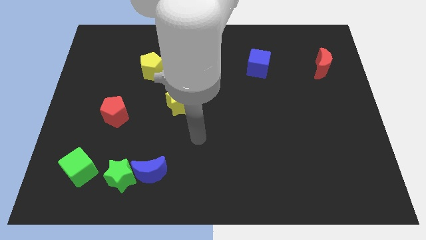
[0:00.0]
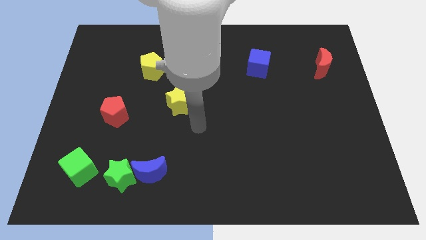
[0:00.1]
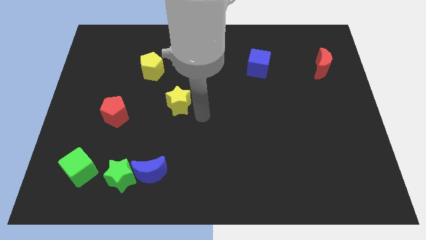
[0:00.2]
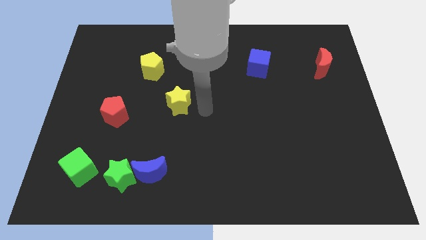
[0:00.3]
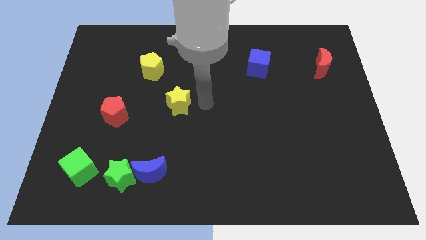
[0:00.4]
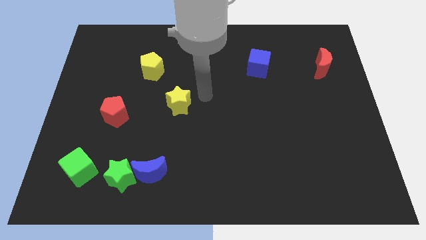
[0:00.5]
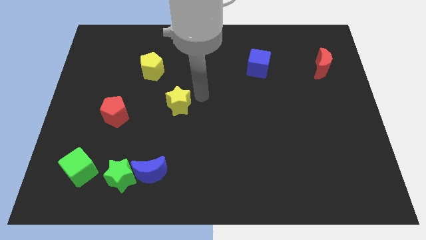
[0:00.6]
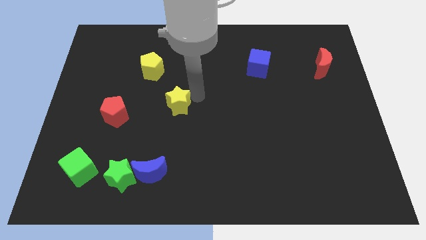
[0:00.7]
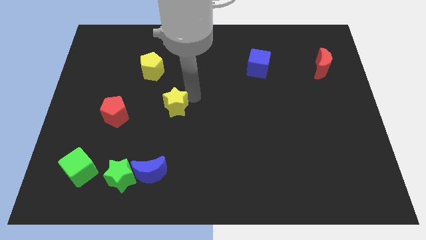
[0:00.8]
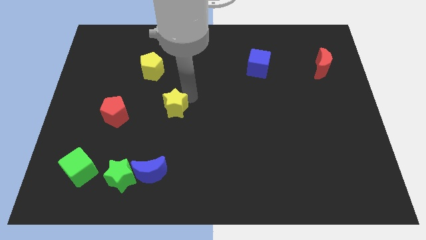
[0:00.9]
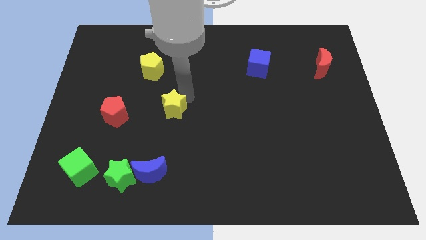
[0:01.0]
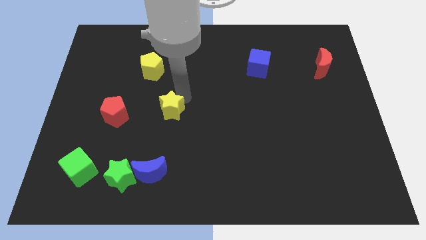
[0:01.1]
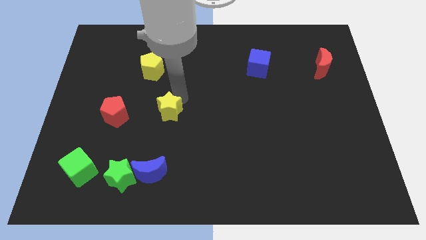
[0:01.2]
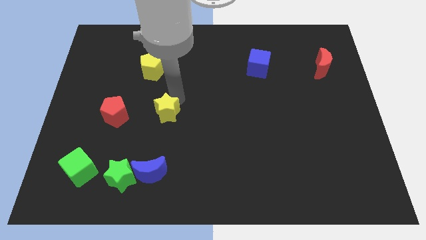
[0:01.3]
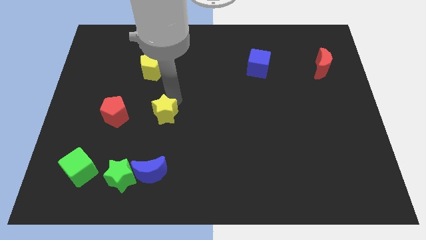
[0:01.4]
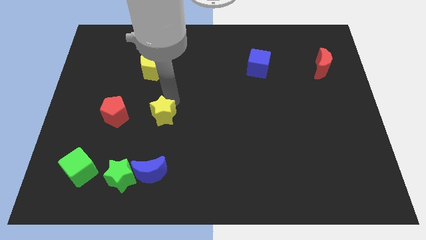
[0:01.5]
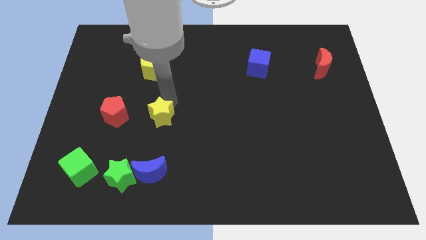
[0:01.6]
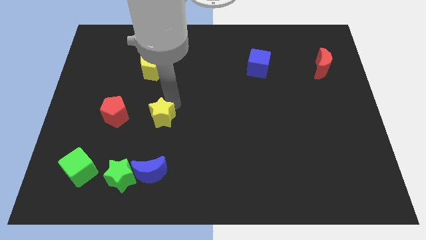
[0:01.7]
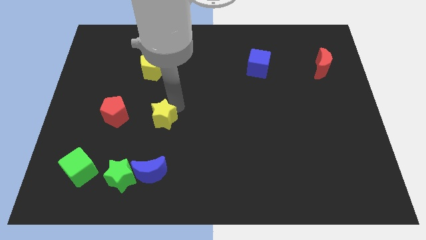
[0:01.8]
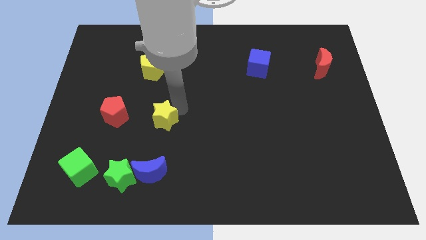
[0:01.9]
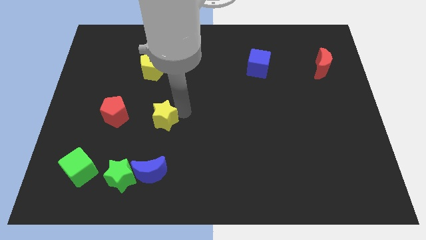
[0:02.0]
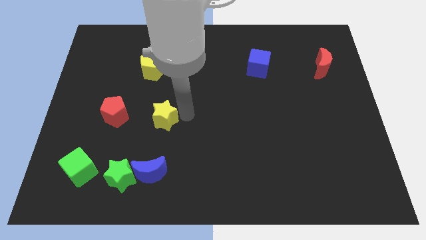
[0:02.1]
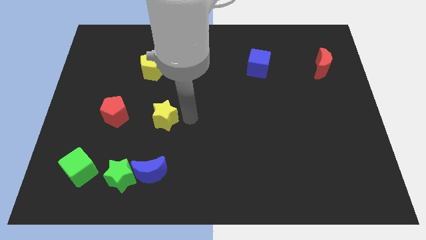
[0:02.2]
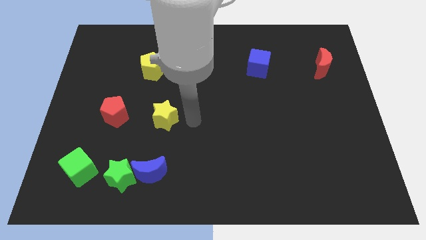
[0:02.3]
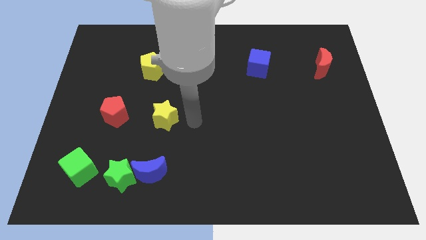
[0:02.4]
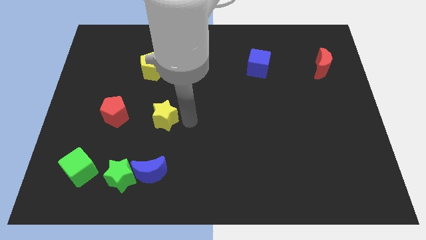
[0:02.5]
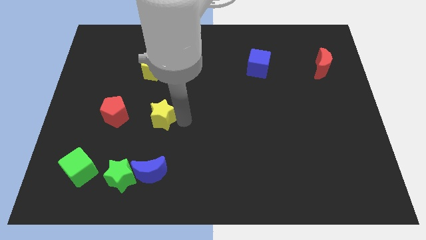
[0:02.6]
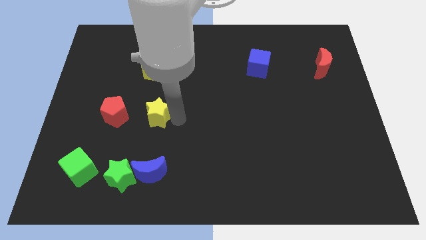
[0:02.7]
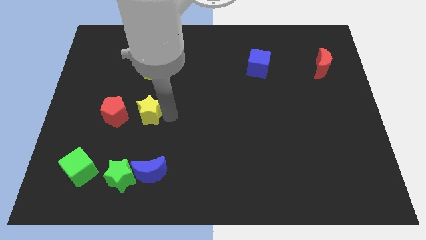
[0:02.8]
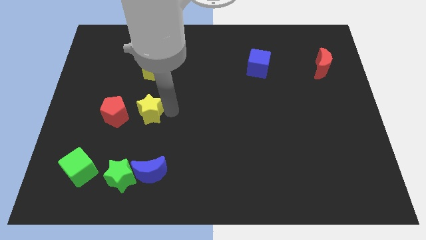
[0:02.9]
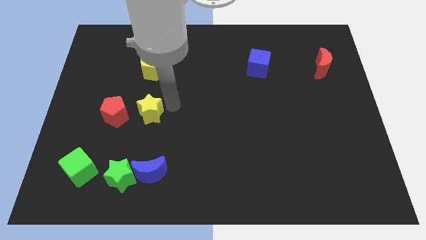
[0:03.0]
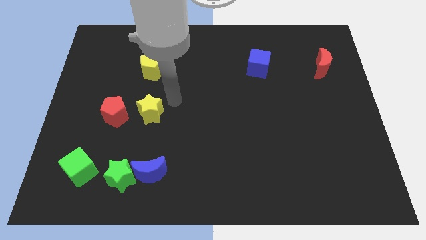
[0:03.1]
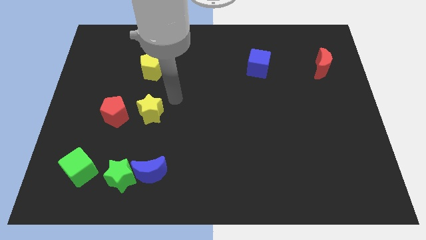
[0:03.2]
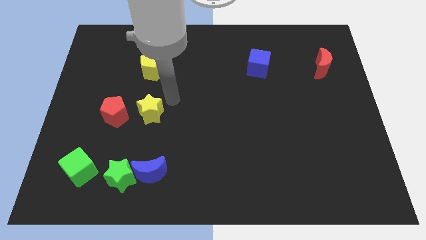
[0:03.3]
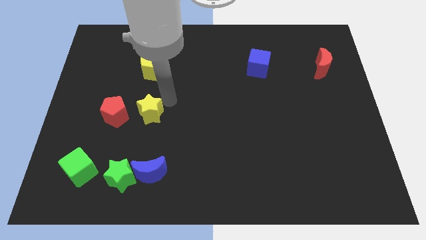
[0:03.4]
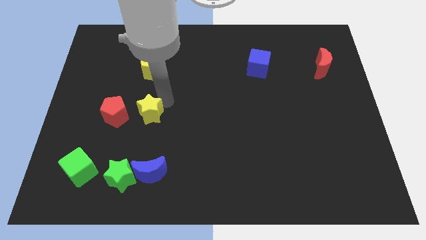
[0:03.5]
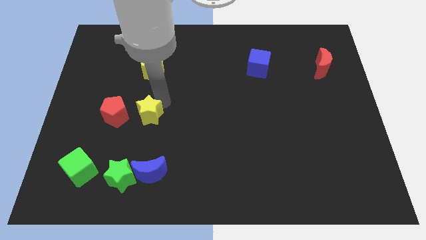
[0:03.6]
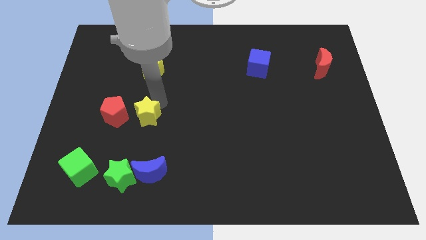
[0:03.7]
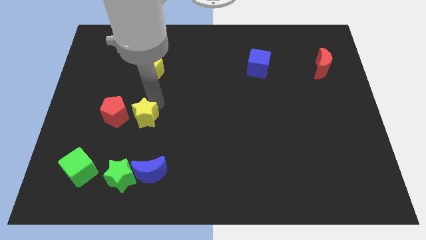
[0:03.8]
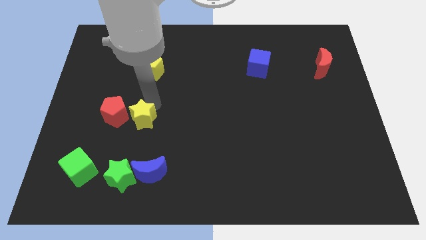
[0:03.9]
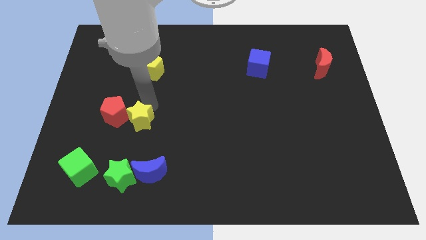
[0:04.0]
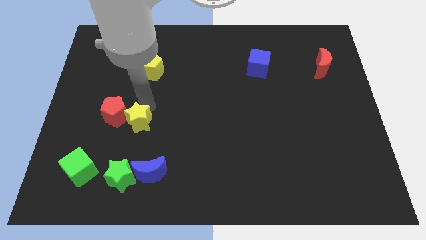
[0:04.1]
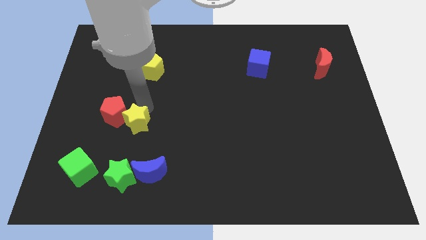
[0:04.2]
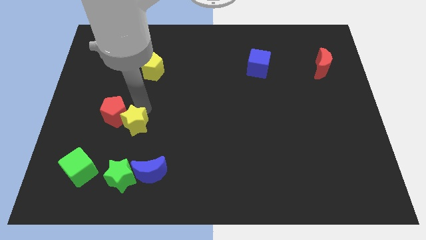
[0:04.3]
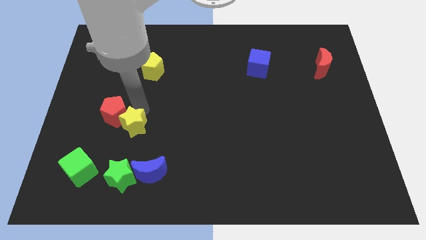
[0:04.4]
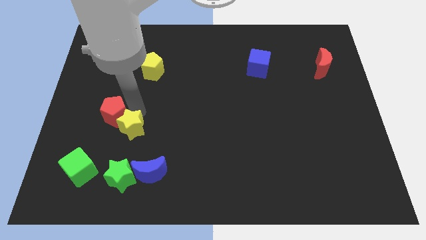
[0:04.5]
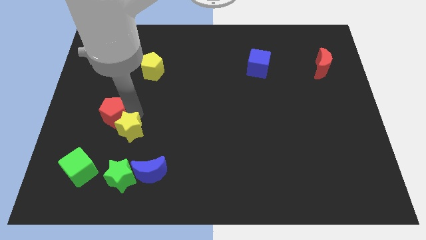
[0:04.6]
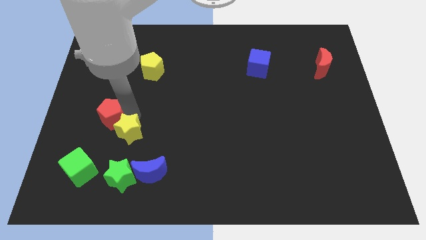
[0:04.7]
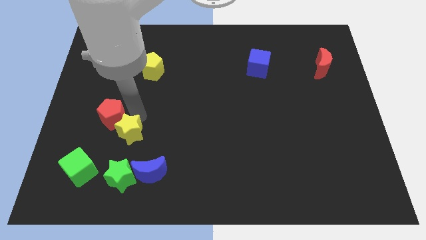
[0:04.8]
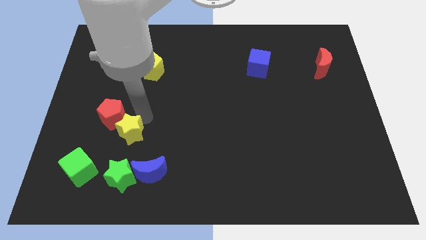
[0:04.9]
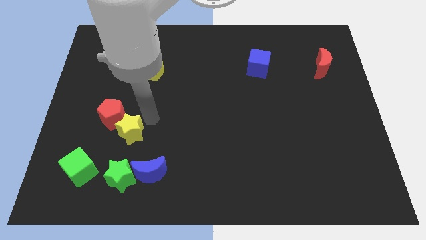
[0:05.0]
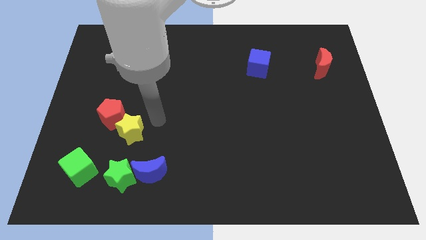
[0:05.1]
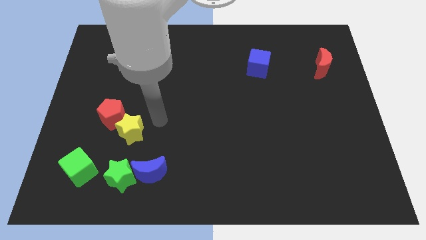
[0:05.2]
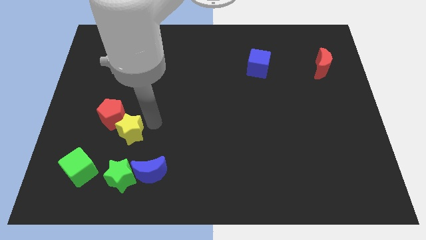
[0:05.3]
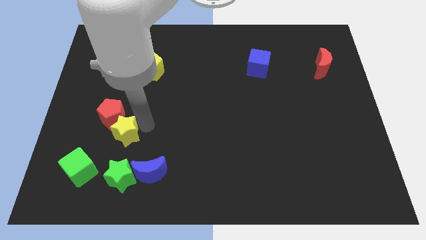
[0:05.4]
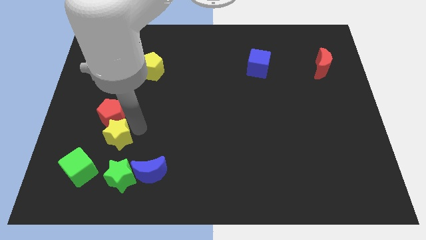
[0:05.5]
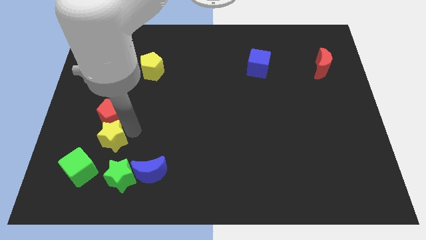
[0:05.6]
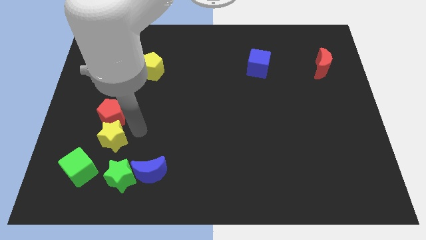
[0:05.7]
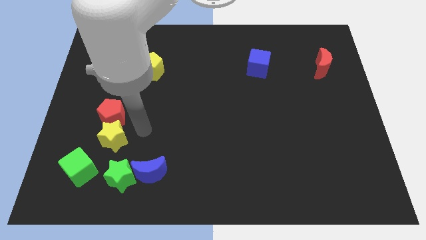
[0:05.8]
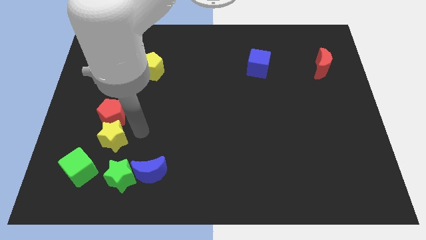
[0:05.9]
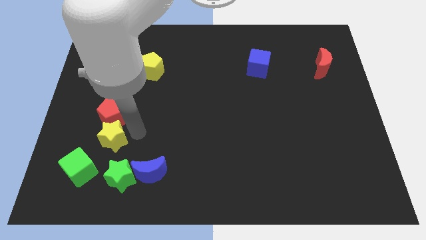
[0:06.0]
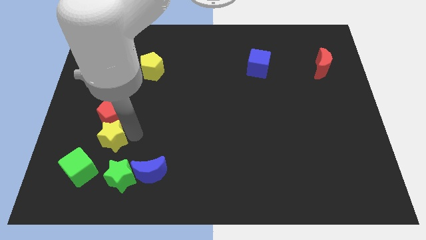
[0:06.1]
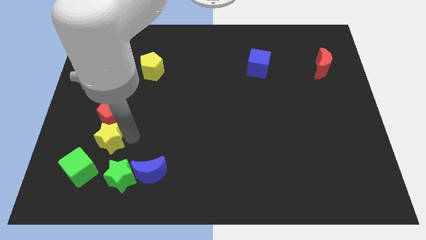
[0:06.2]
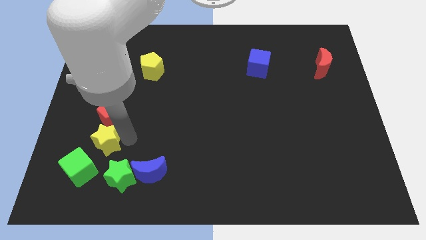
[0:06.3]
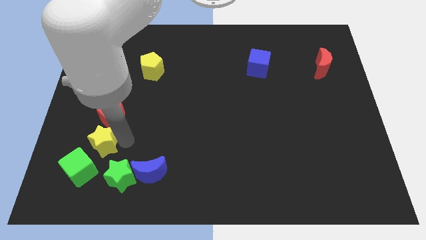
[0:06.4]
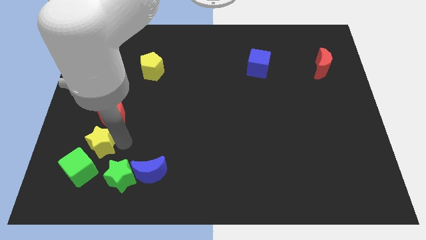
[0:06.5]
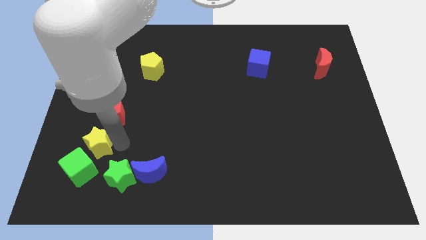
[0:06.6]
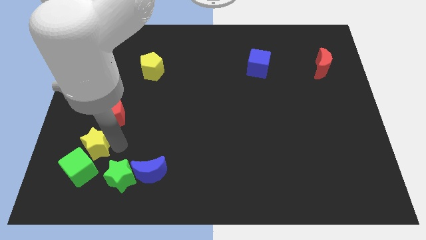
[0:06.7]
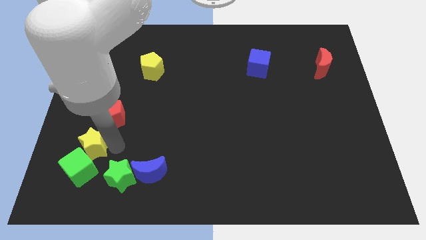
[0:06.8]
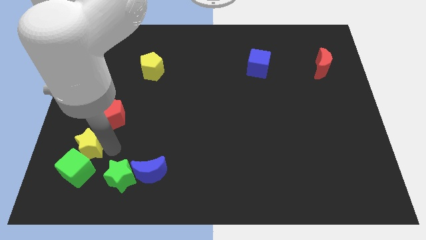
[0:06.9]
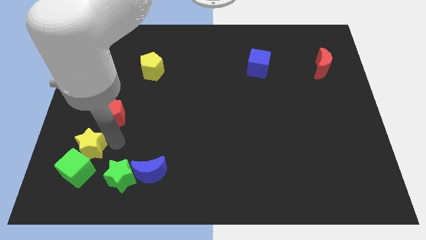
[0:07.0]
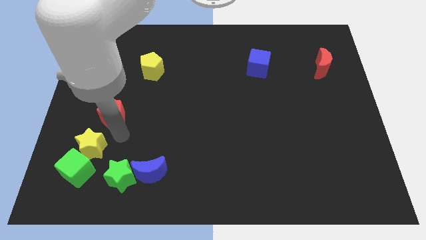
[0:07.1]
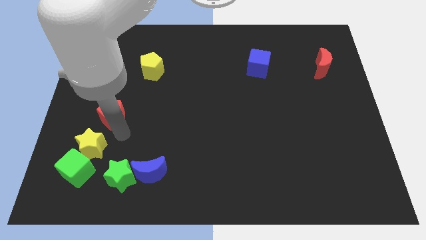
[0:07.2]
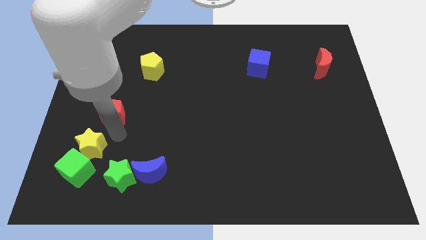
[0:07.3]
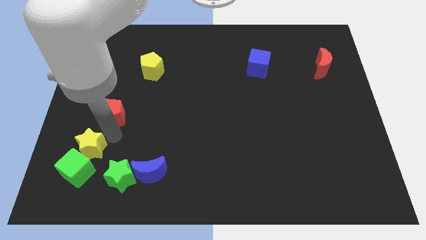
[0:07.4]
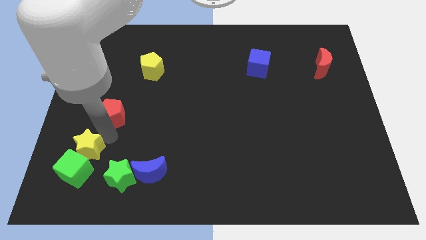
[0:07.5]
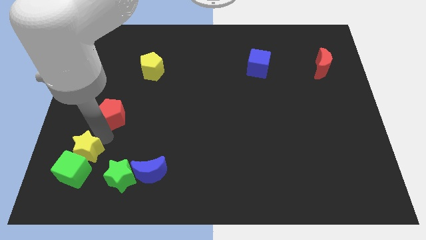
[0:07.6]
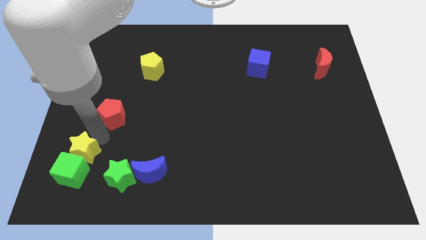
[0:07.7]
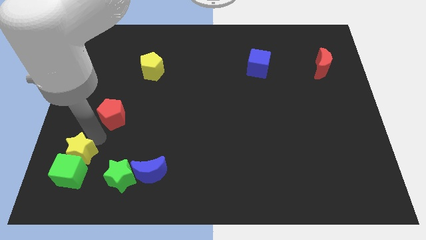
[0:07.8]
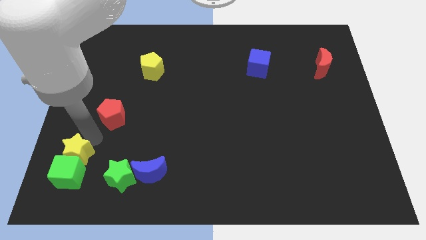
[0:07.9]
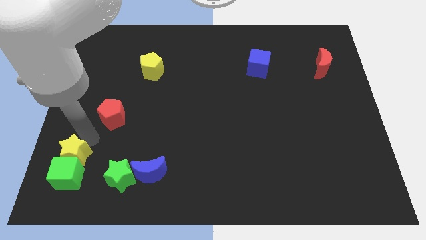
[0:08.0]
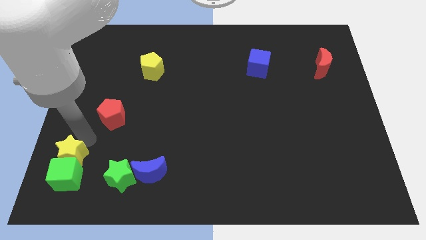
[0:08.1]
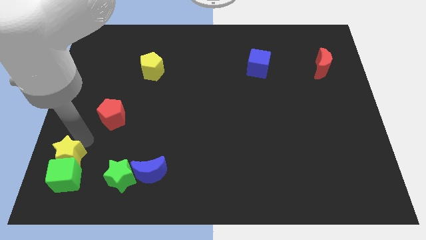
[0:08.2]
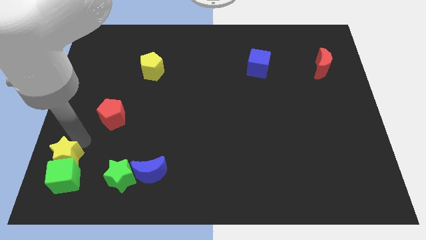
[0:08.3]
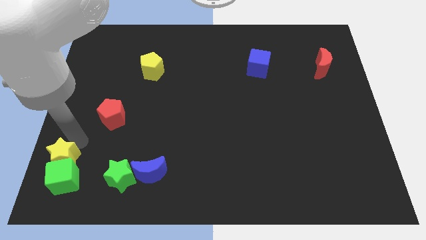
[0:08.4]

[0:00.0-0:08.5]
push the yellow star just left of the green star
